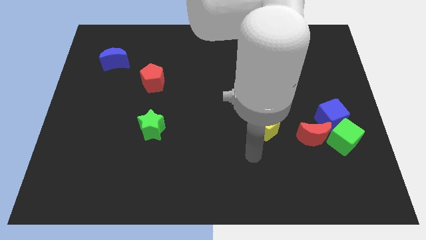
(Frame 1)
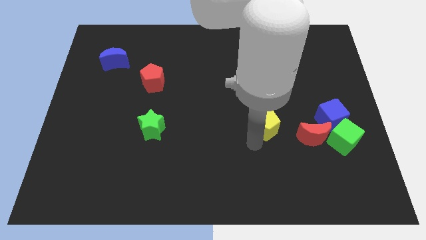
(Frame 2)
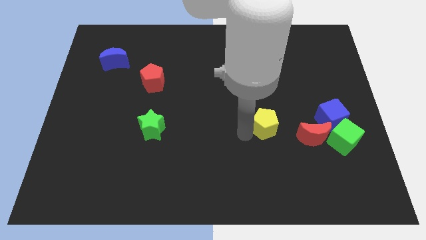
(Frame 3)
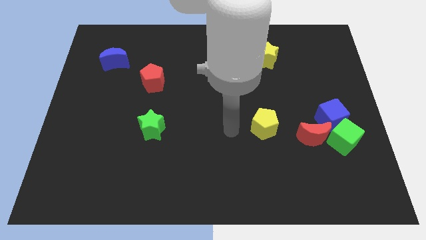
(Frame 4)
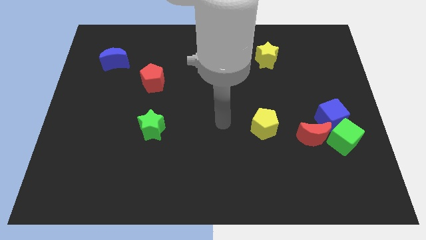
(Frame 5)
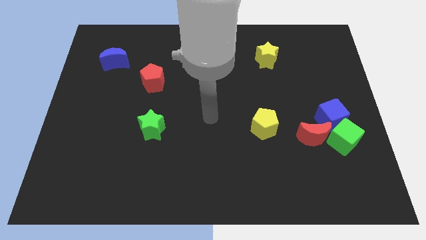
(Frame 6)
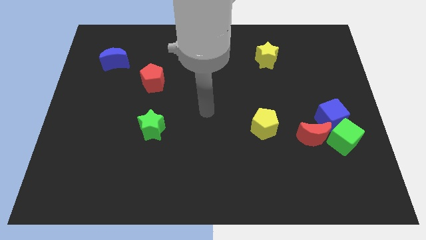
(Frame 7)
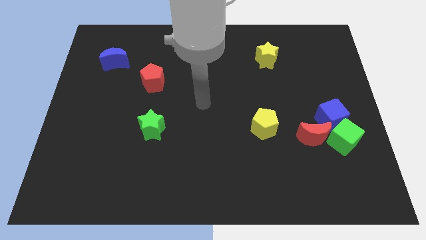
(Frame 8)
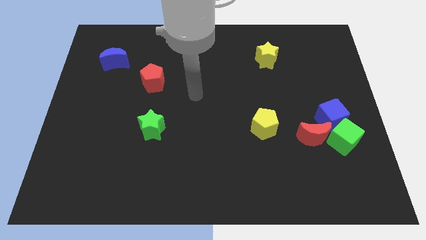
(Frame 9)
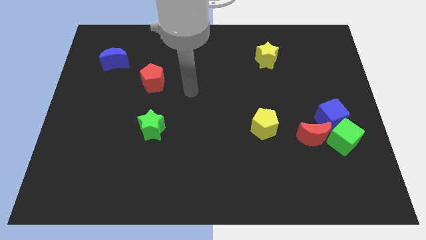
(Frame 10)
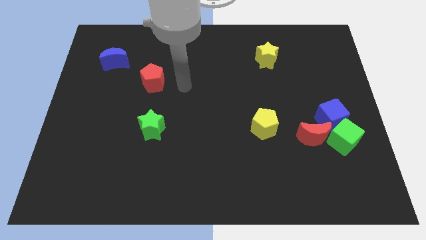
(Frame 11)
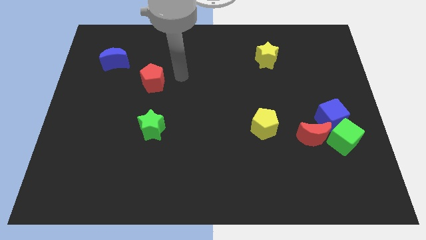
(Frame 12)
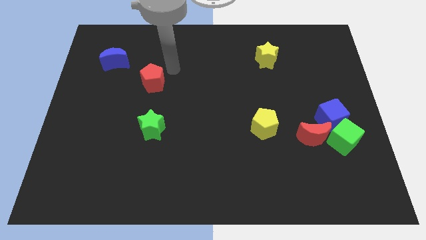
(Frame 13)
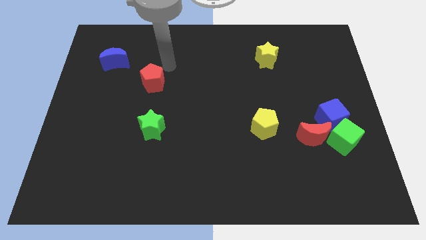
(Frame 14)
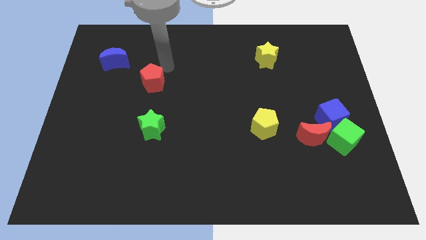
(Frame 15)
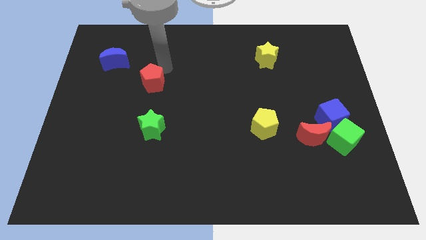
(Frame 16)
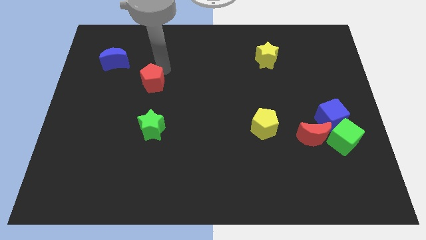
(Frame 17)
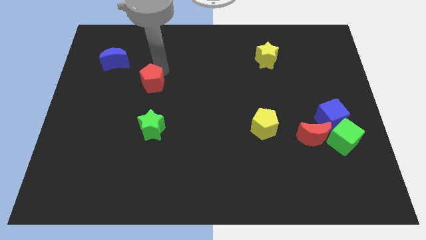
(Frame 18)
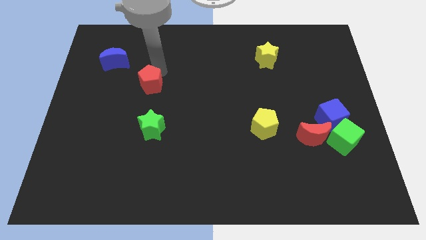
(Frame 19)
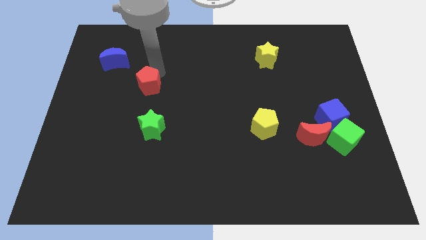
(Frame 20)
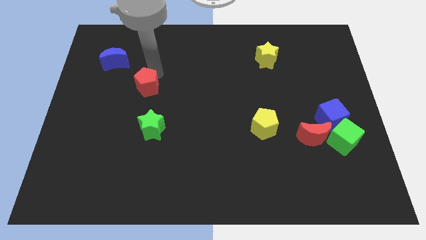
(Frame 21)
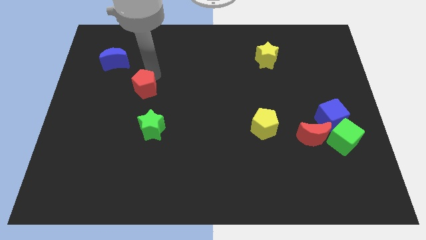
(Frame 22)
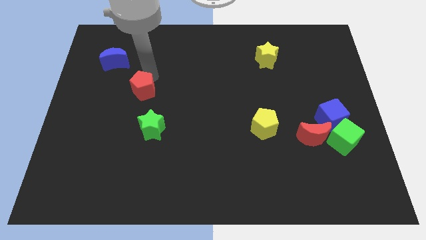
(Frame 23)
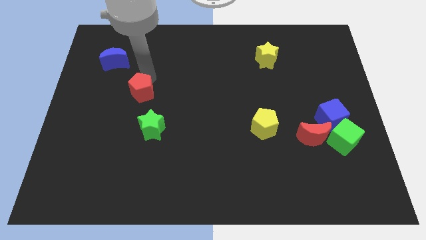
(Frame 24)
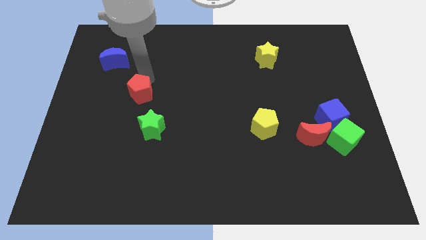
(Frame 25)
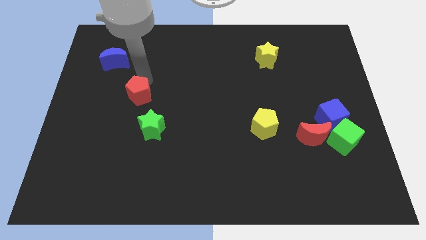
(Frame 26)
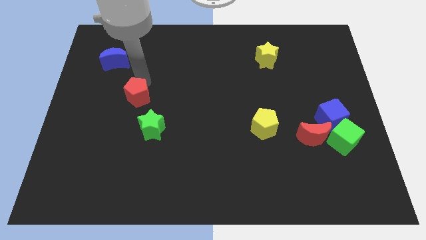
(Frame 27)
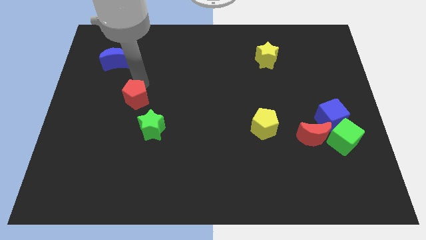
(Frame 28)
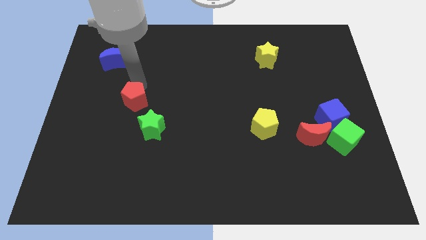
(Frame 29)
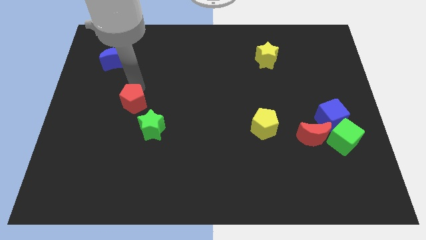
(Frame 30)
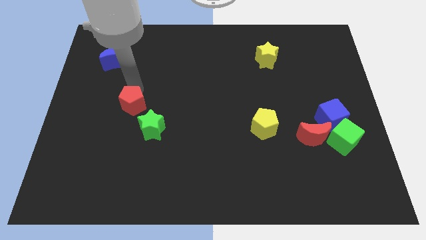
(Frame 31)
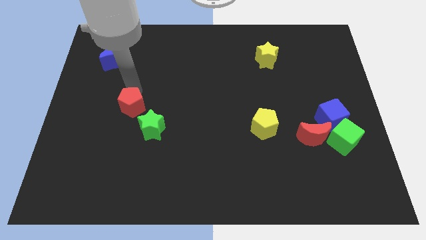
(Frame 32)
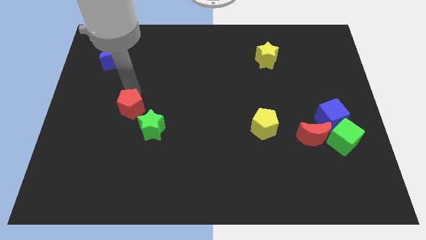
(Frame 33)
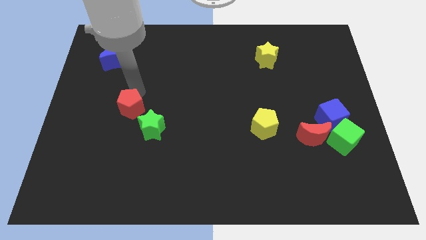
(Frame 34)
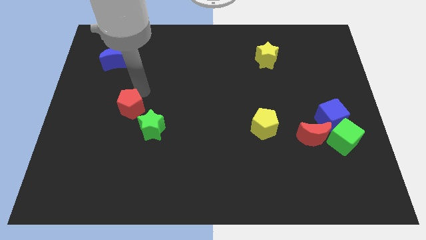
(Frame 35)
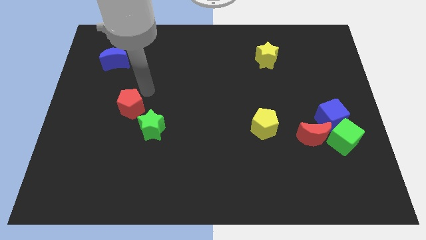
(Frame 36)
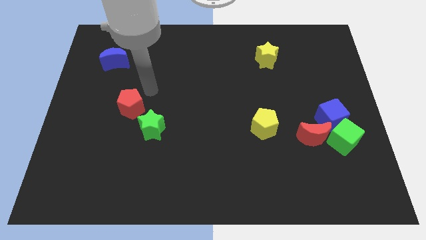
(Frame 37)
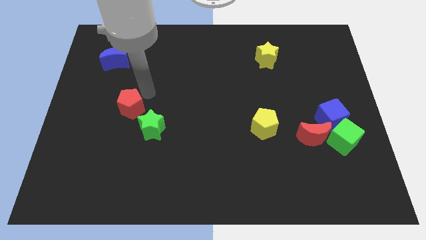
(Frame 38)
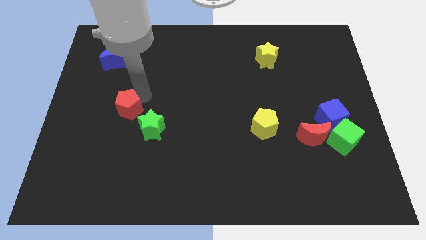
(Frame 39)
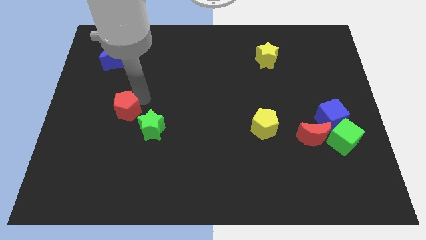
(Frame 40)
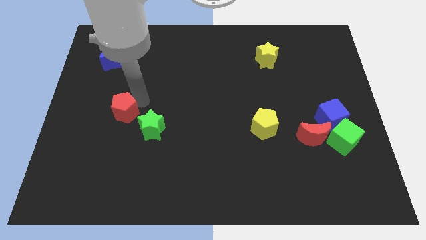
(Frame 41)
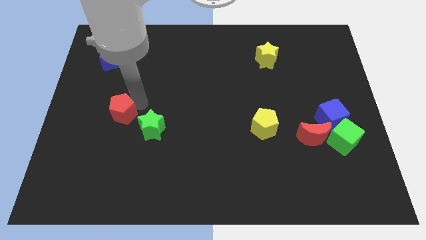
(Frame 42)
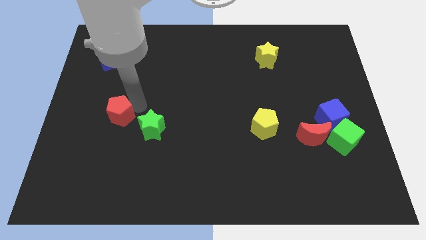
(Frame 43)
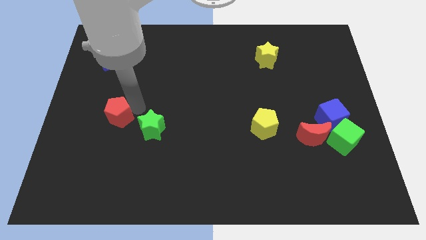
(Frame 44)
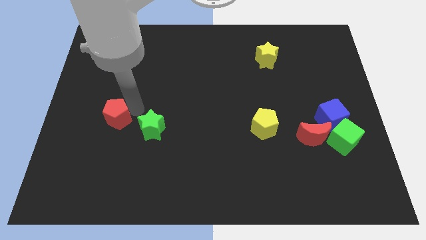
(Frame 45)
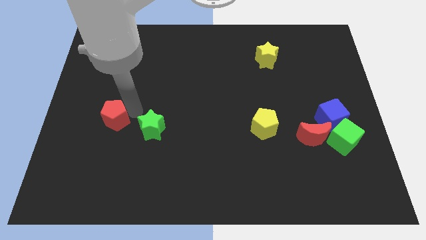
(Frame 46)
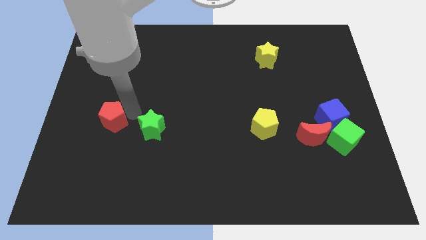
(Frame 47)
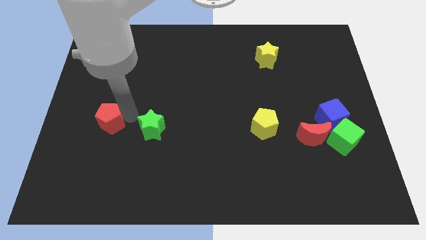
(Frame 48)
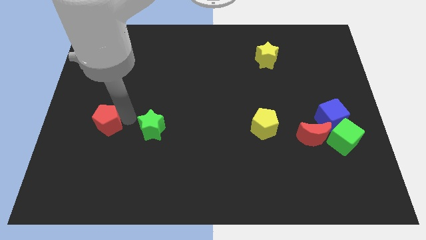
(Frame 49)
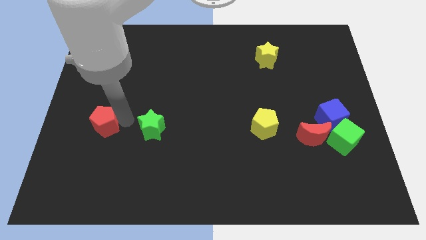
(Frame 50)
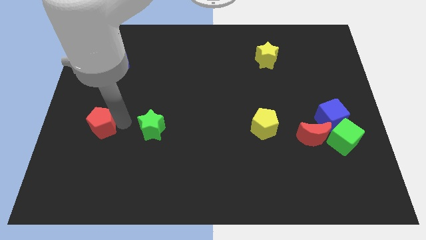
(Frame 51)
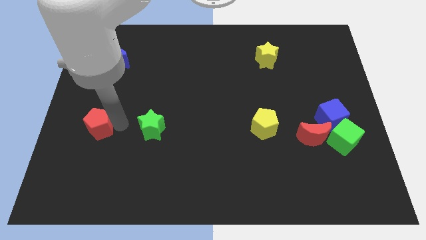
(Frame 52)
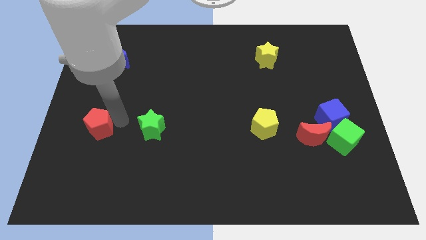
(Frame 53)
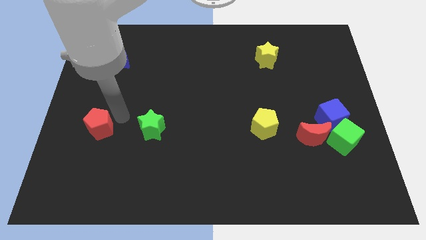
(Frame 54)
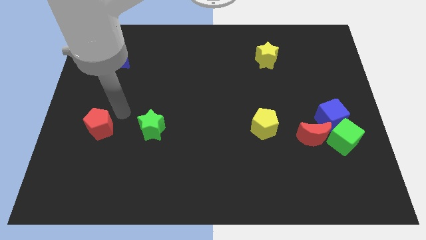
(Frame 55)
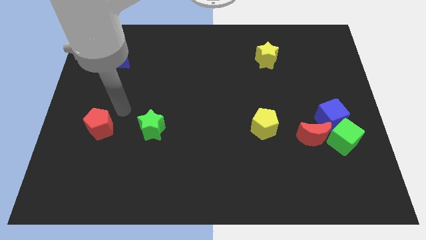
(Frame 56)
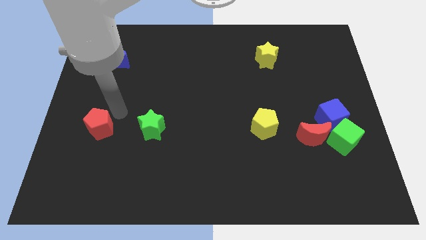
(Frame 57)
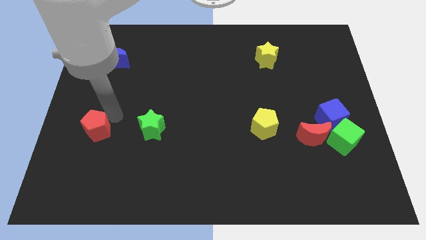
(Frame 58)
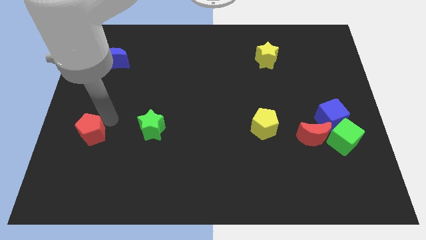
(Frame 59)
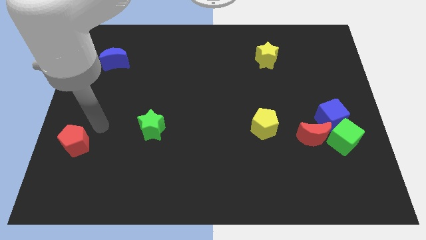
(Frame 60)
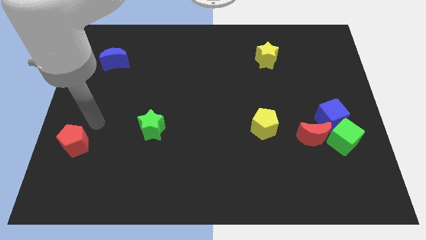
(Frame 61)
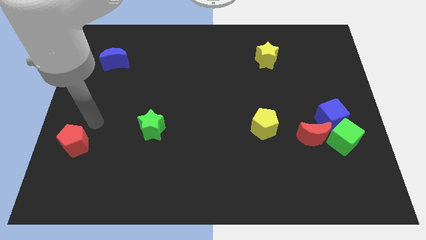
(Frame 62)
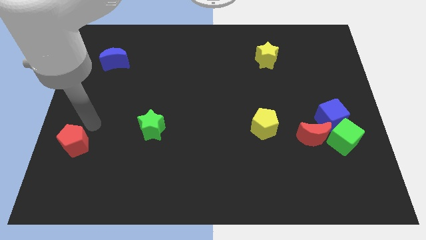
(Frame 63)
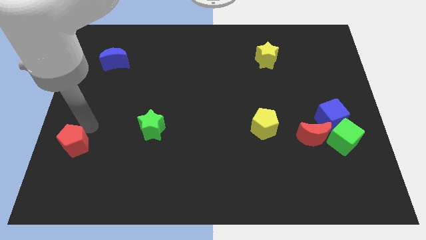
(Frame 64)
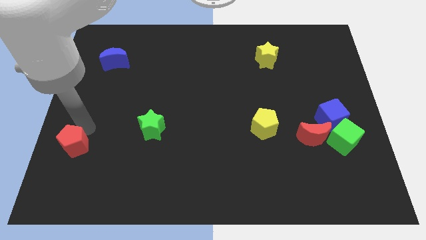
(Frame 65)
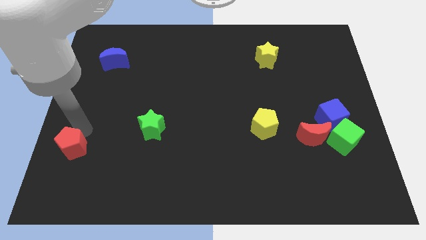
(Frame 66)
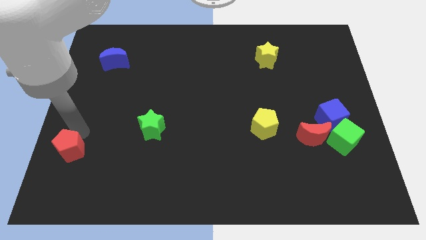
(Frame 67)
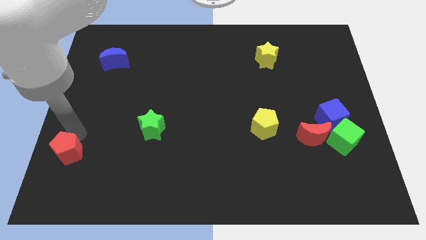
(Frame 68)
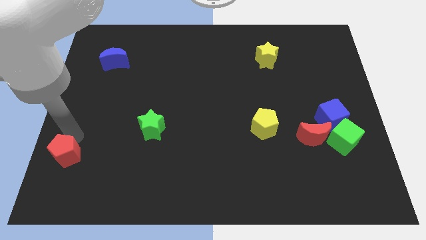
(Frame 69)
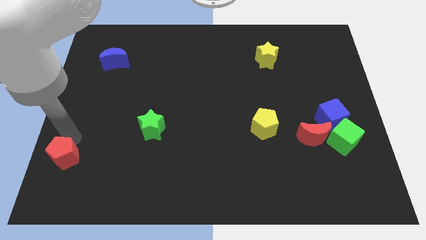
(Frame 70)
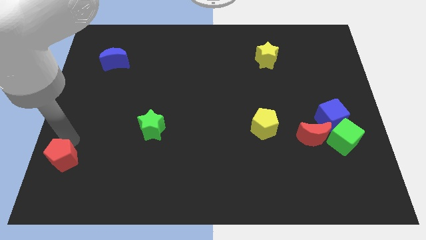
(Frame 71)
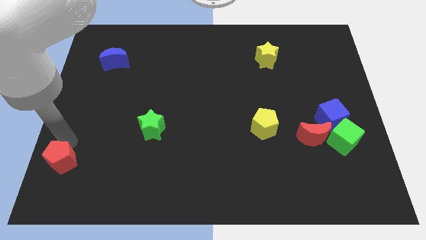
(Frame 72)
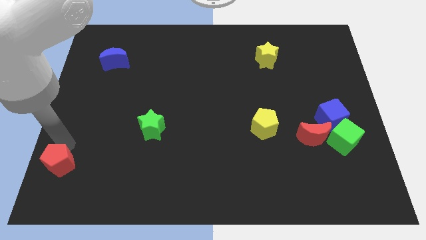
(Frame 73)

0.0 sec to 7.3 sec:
push the red pentagon to the bottom left
